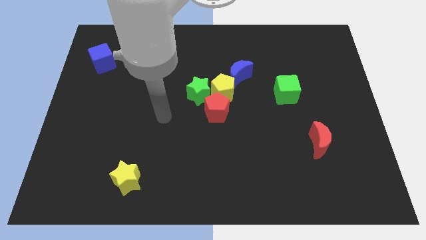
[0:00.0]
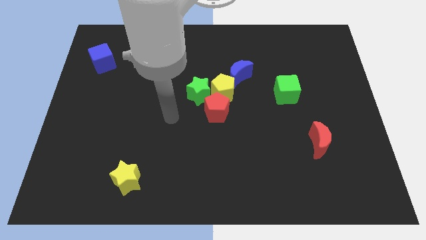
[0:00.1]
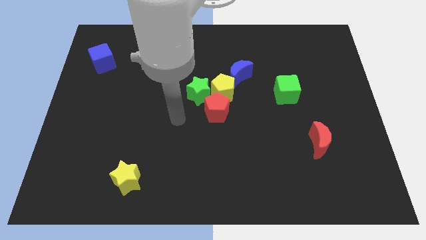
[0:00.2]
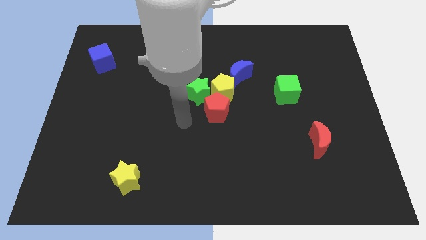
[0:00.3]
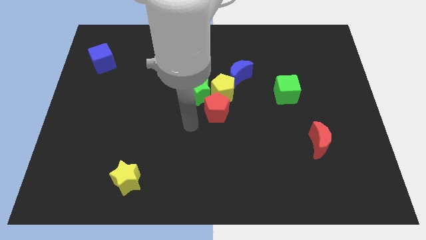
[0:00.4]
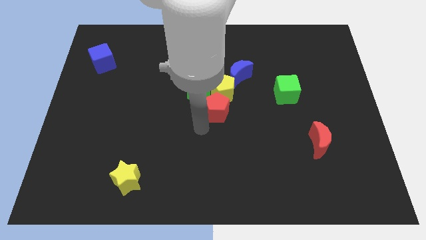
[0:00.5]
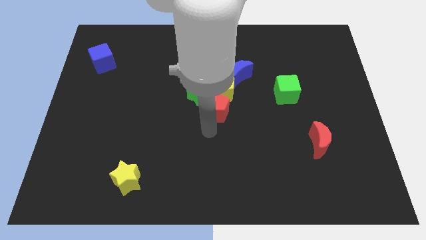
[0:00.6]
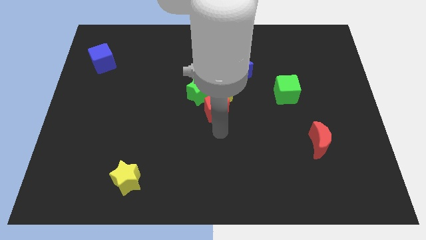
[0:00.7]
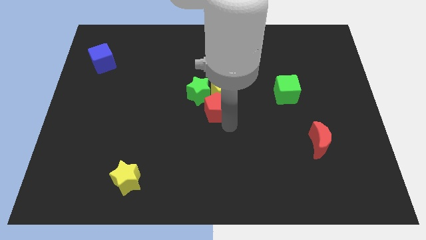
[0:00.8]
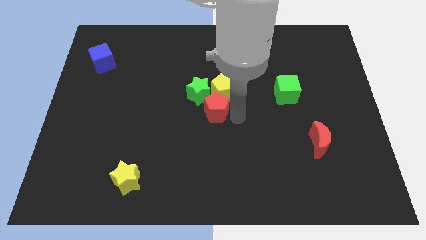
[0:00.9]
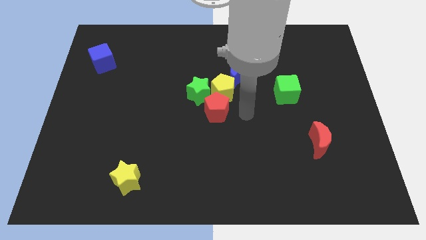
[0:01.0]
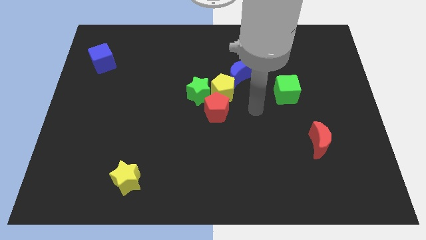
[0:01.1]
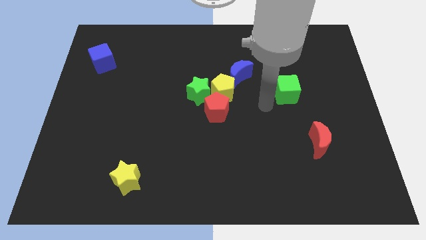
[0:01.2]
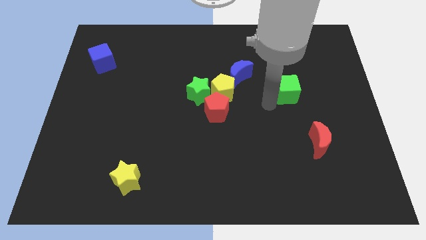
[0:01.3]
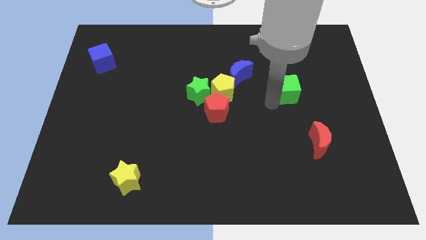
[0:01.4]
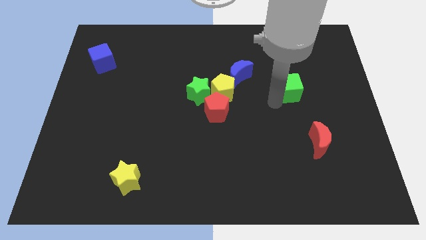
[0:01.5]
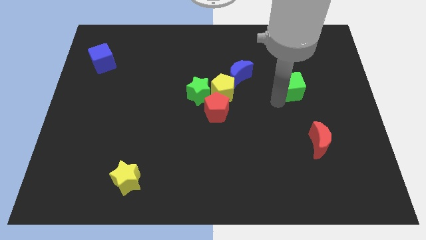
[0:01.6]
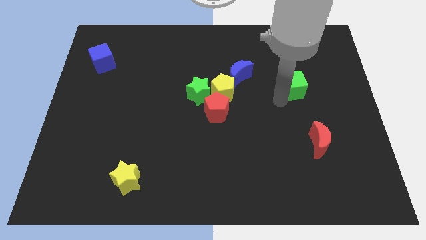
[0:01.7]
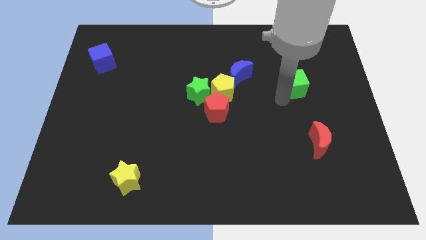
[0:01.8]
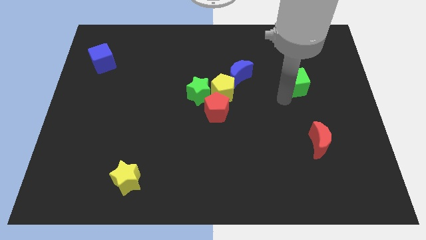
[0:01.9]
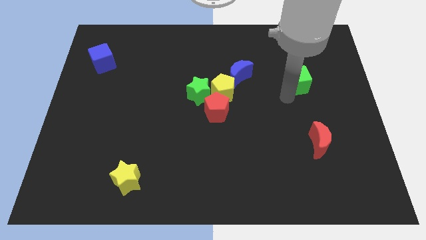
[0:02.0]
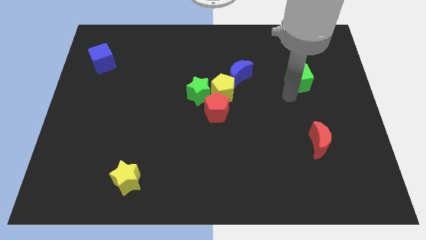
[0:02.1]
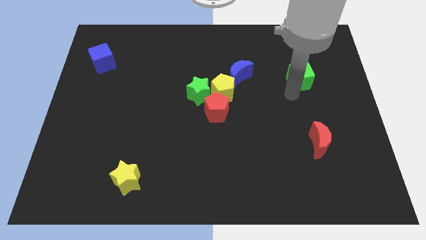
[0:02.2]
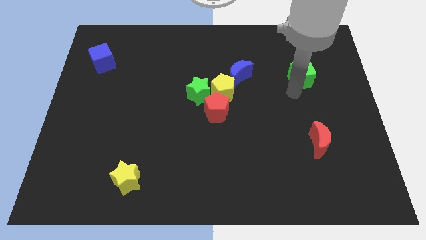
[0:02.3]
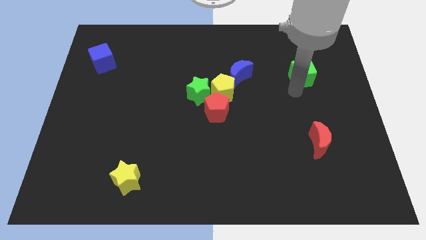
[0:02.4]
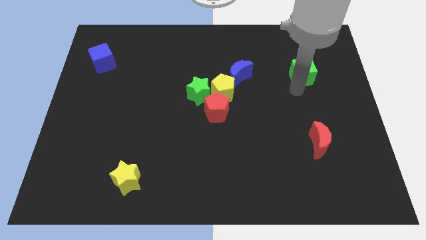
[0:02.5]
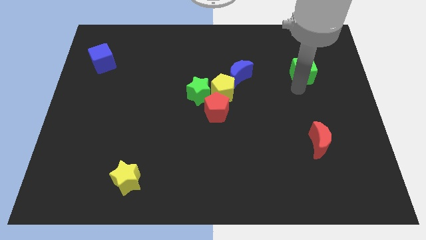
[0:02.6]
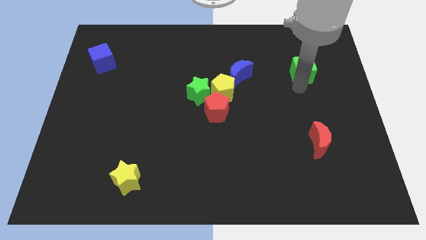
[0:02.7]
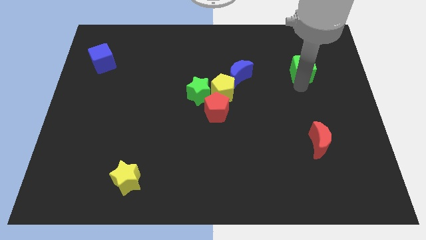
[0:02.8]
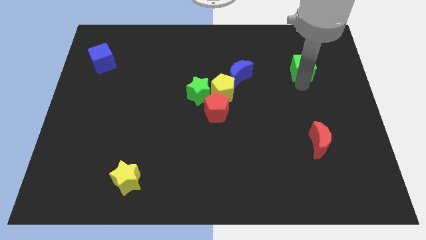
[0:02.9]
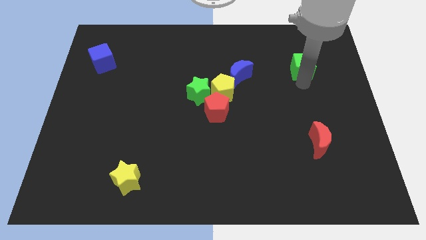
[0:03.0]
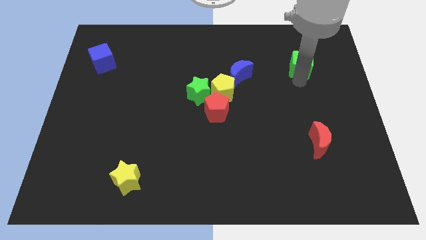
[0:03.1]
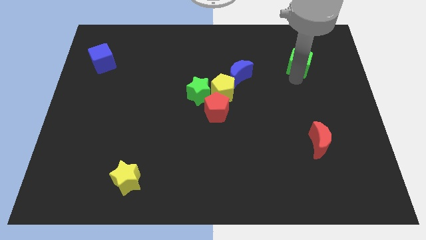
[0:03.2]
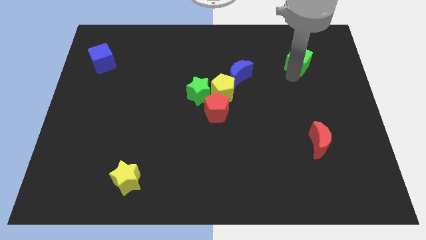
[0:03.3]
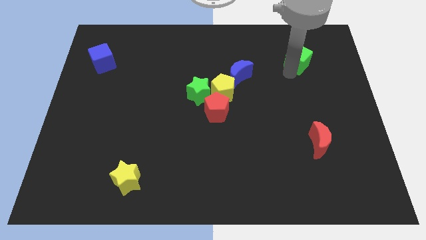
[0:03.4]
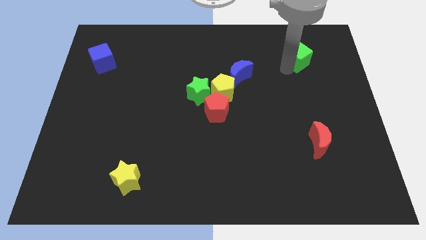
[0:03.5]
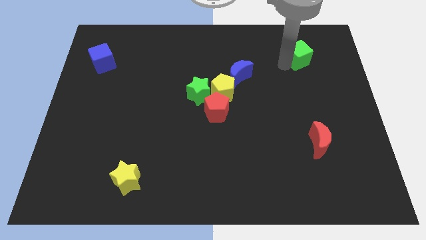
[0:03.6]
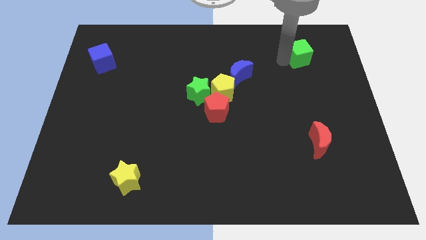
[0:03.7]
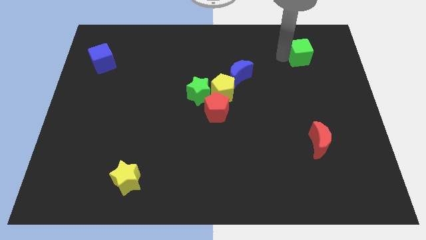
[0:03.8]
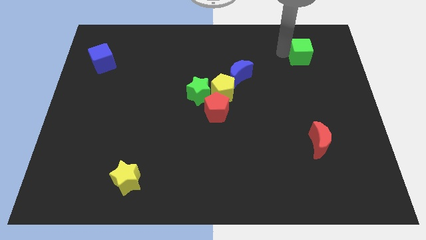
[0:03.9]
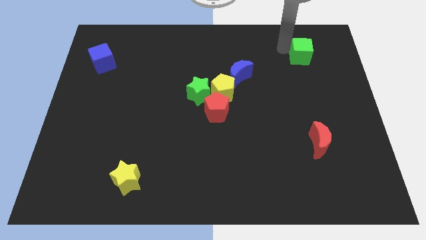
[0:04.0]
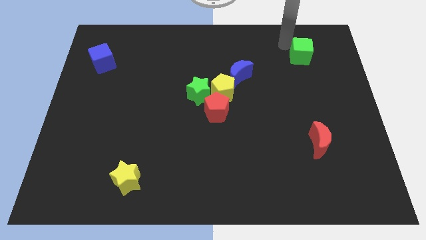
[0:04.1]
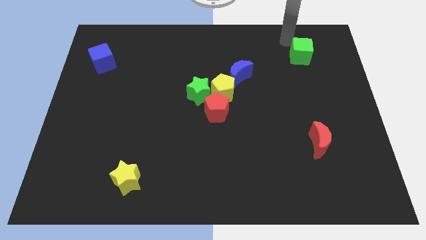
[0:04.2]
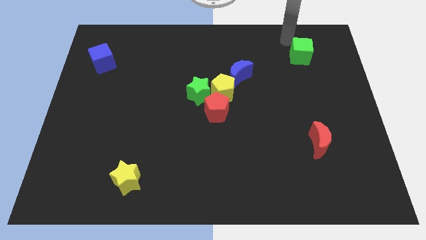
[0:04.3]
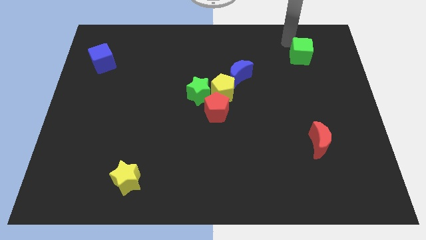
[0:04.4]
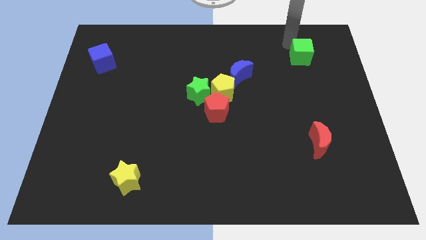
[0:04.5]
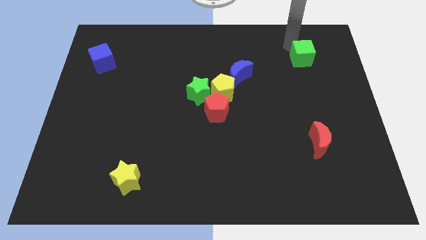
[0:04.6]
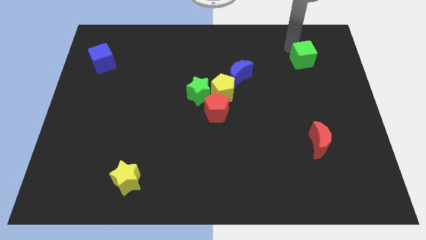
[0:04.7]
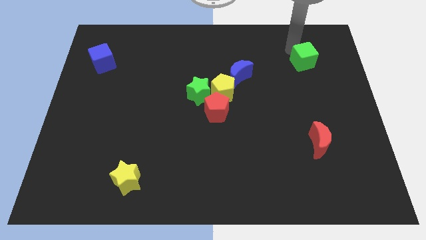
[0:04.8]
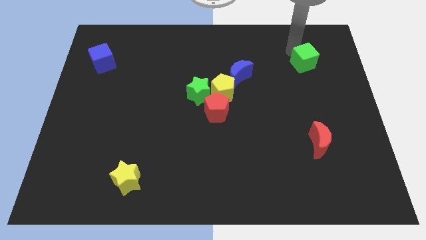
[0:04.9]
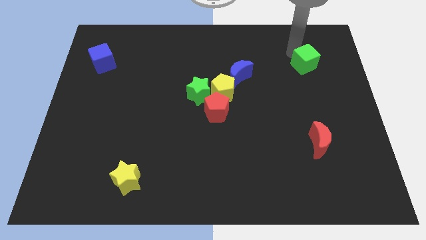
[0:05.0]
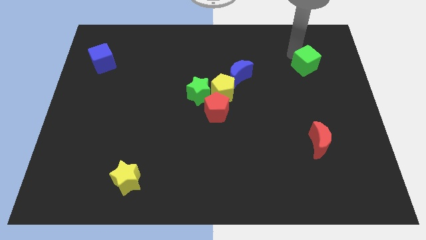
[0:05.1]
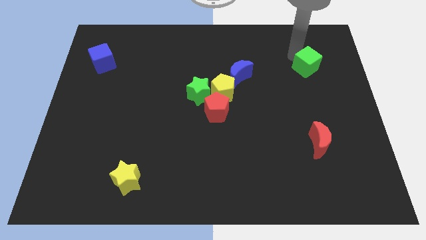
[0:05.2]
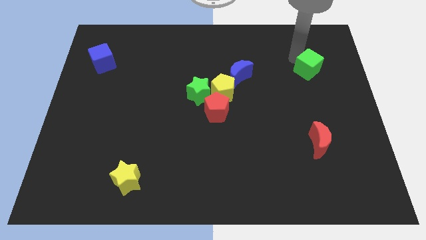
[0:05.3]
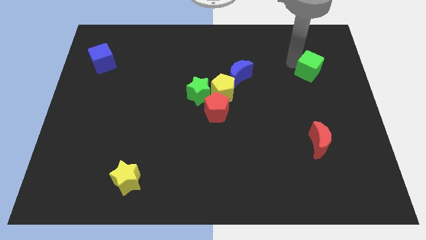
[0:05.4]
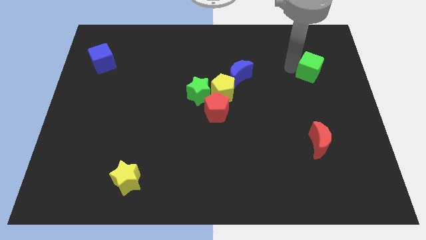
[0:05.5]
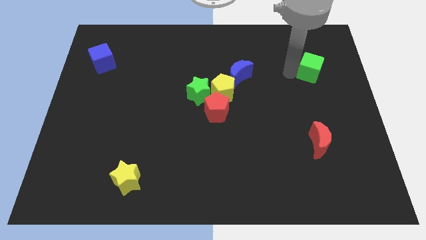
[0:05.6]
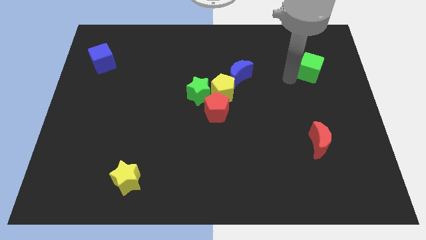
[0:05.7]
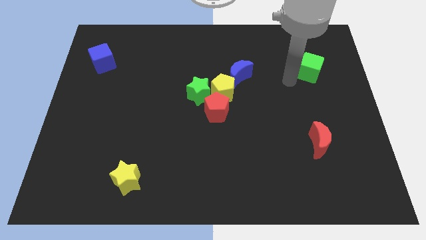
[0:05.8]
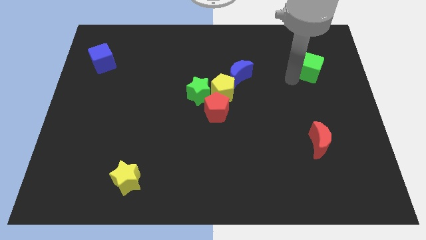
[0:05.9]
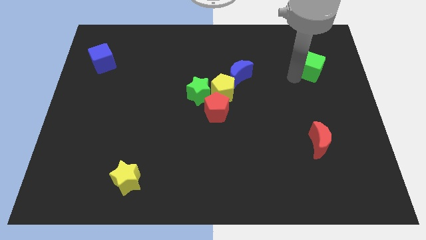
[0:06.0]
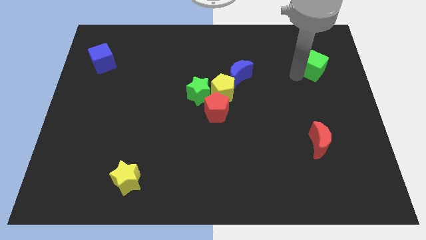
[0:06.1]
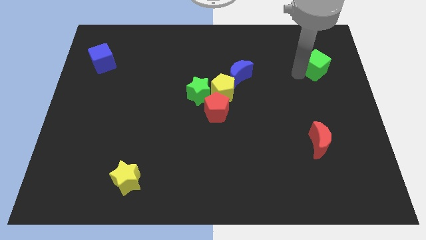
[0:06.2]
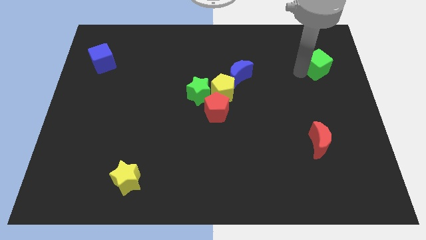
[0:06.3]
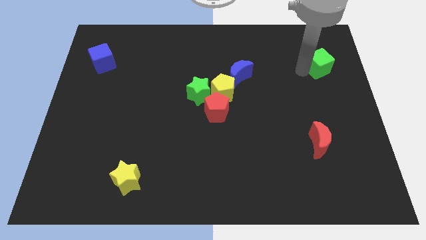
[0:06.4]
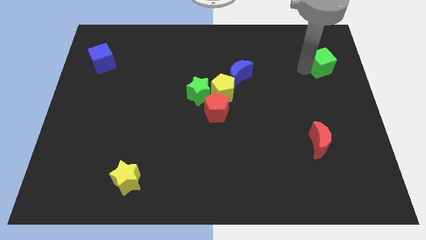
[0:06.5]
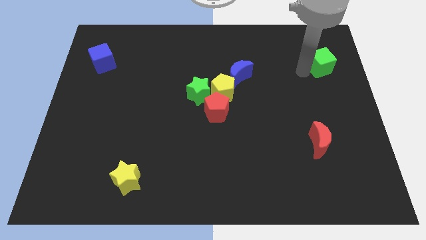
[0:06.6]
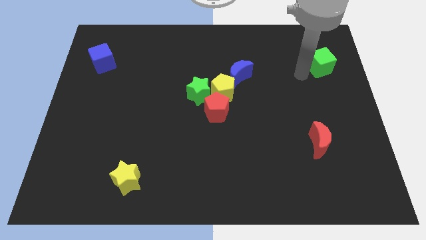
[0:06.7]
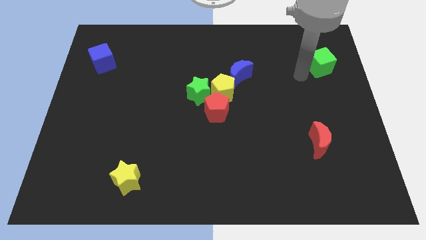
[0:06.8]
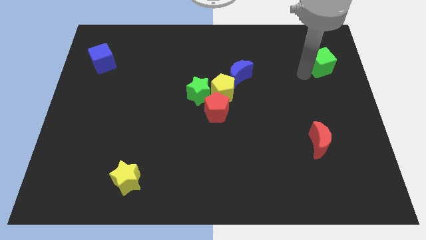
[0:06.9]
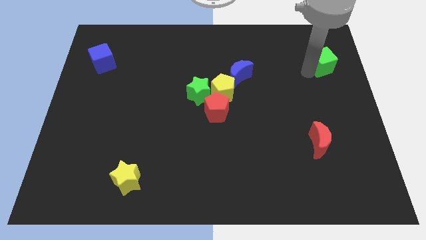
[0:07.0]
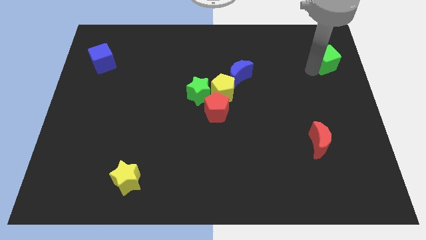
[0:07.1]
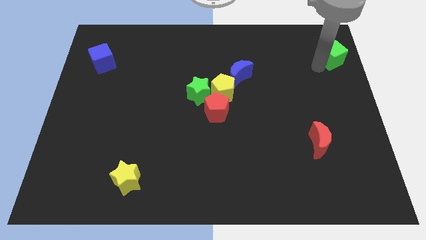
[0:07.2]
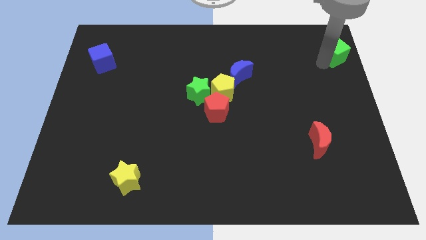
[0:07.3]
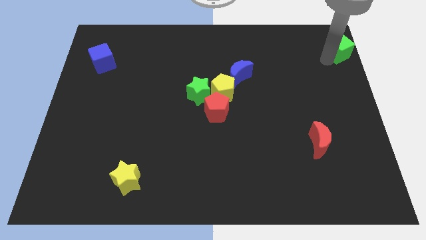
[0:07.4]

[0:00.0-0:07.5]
push the green cube to the top right corner
